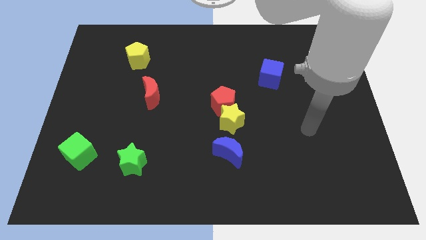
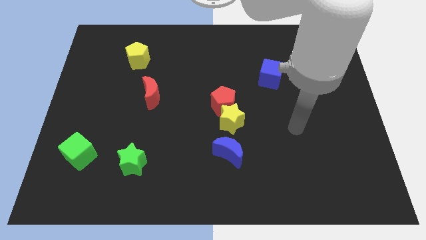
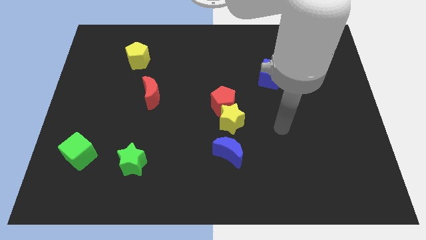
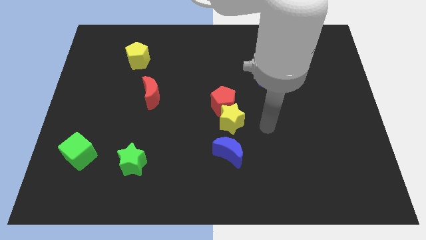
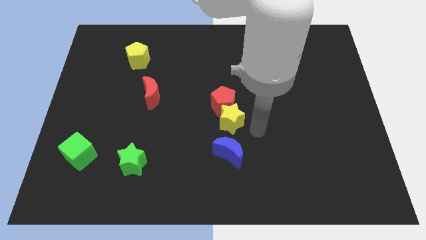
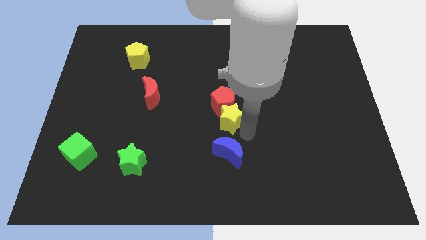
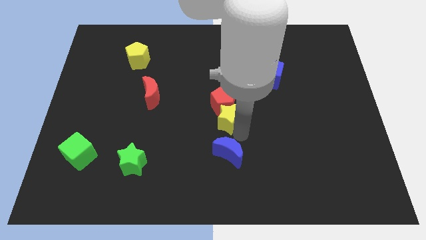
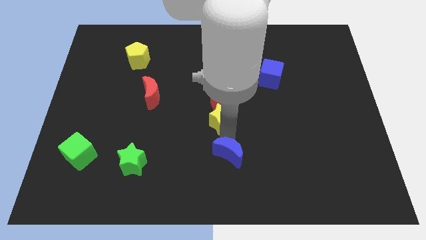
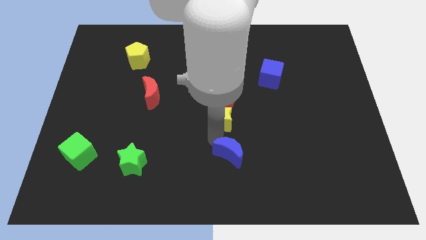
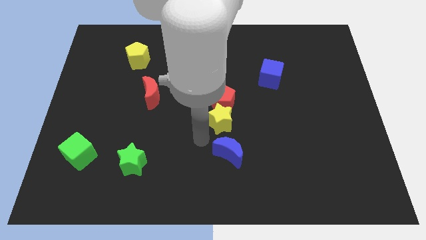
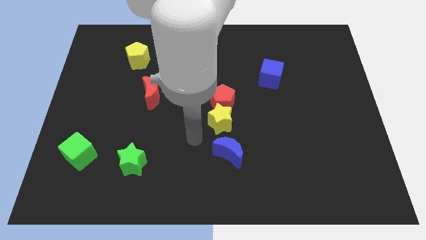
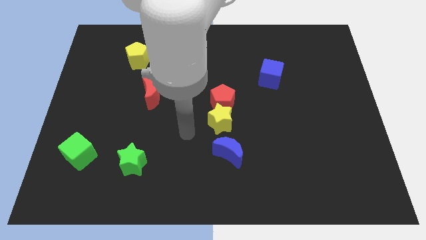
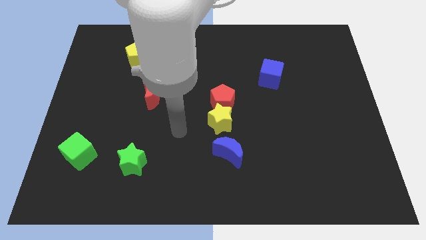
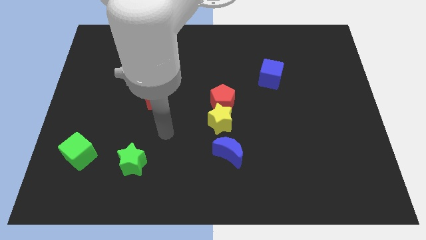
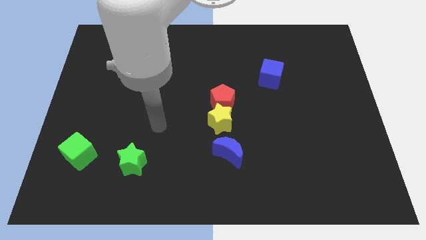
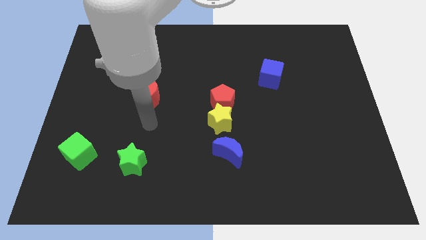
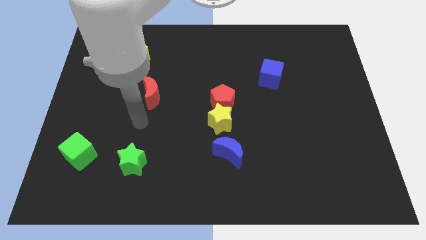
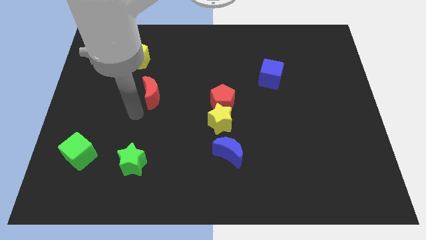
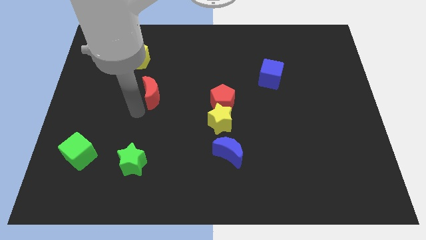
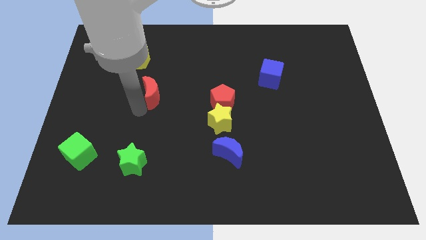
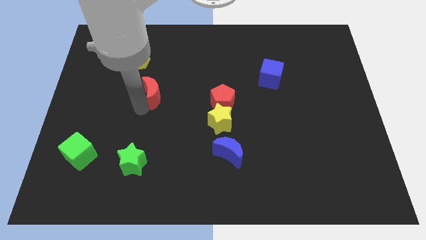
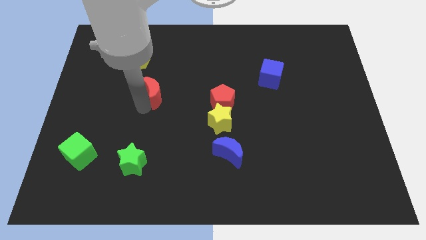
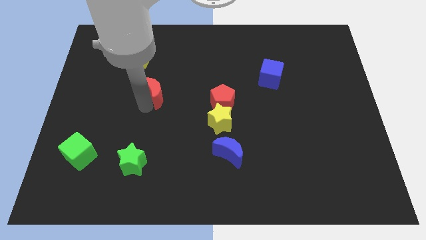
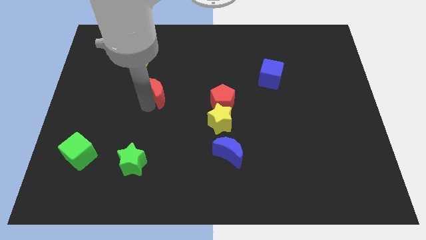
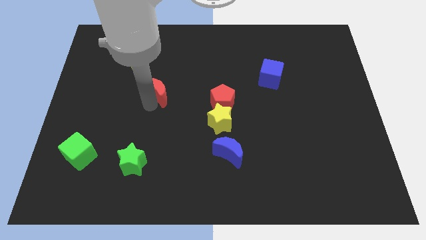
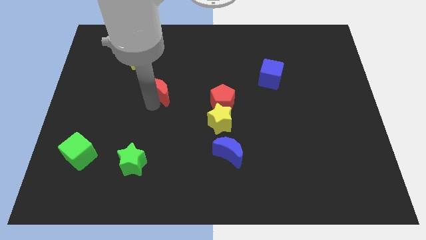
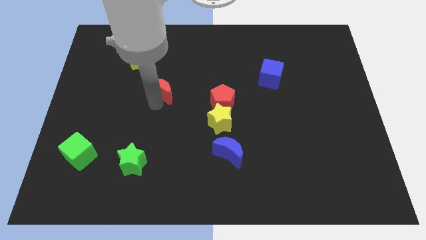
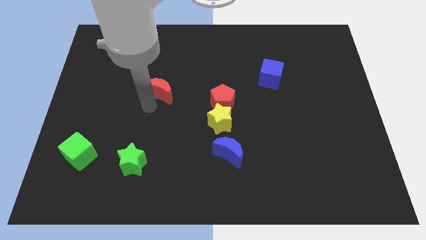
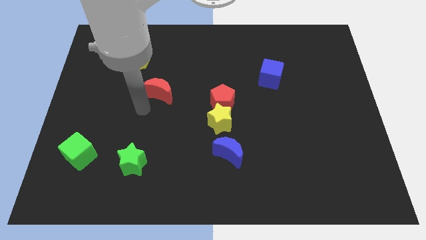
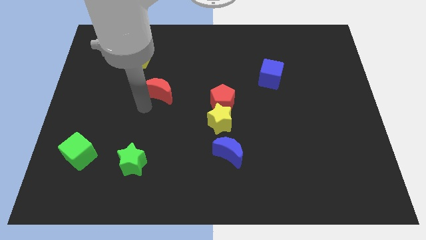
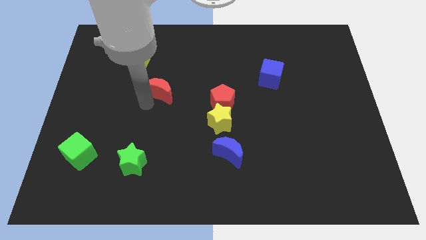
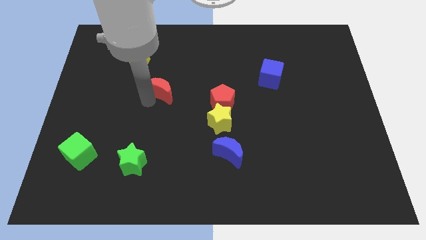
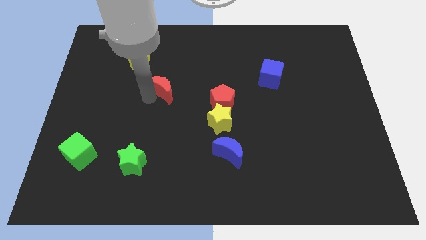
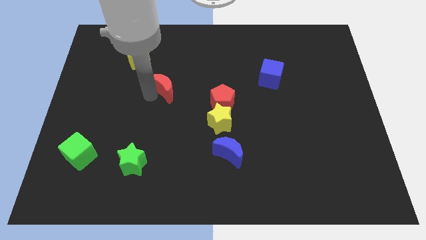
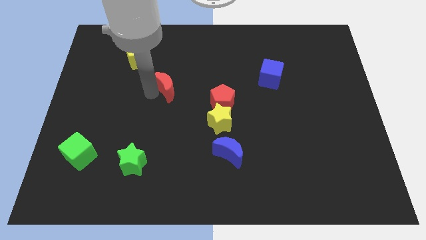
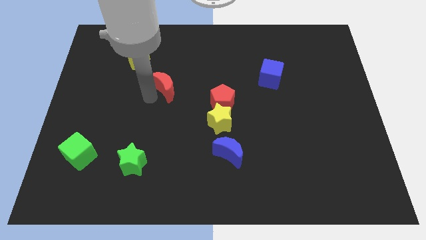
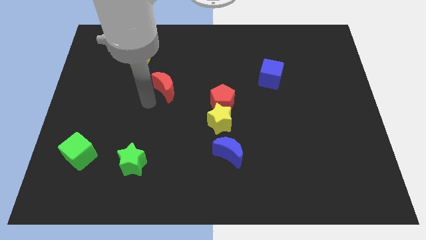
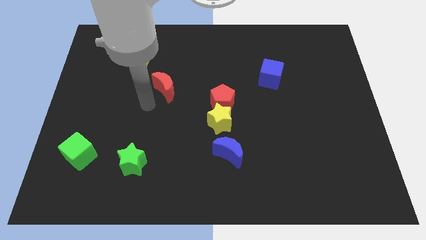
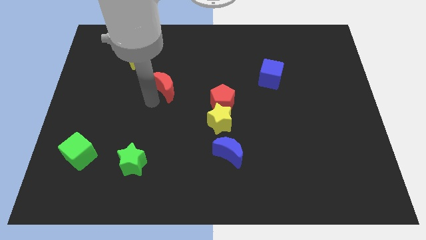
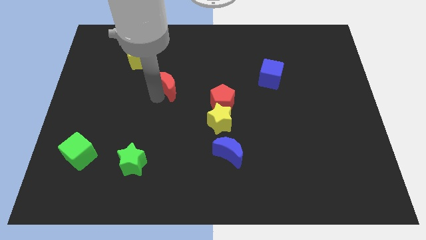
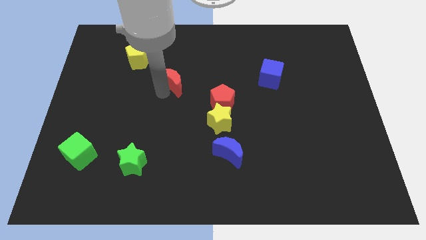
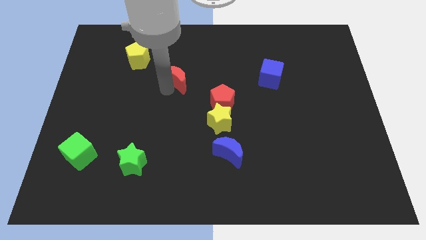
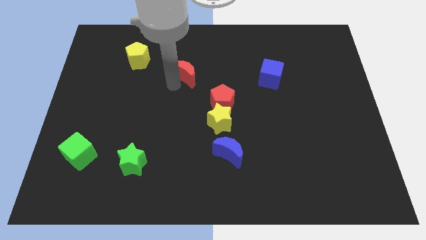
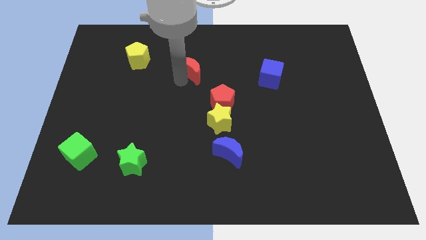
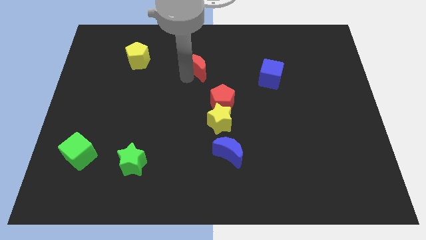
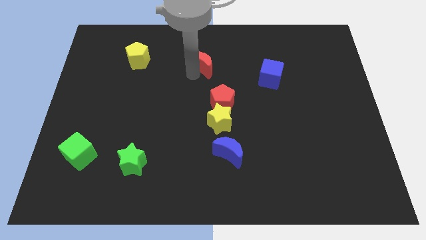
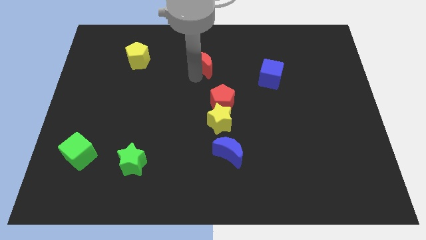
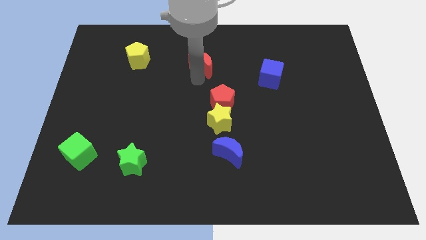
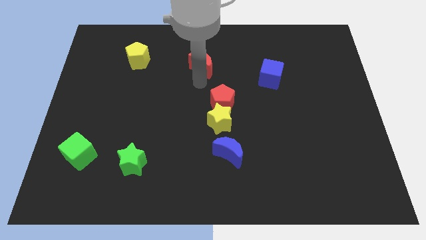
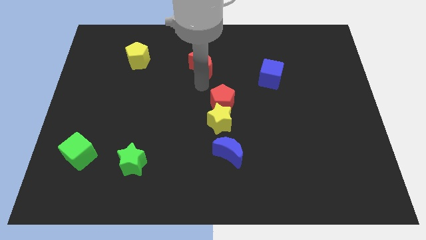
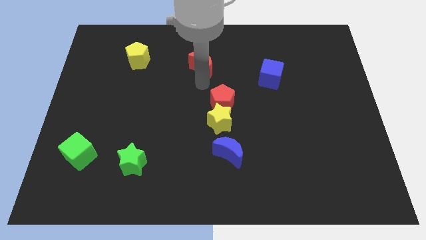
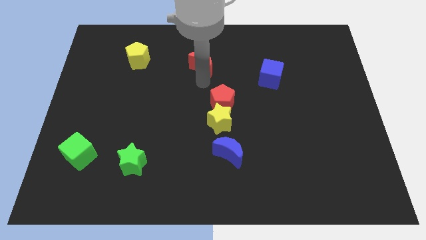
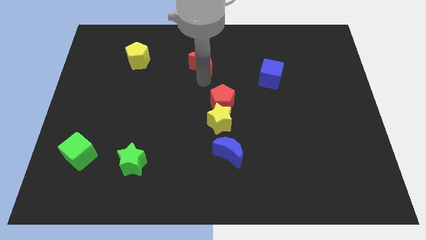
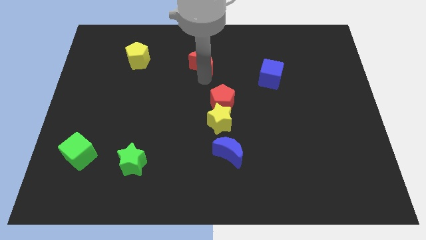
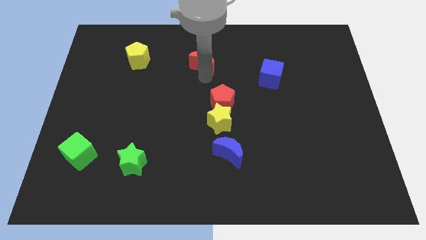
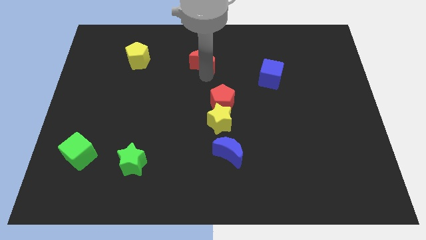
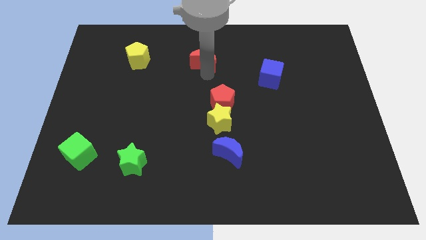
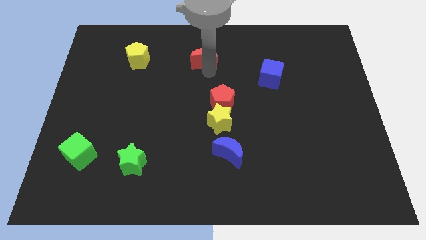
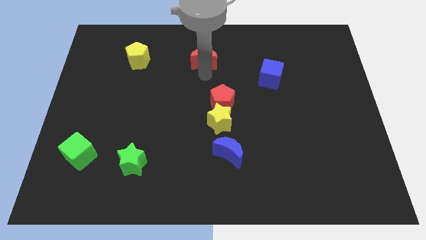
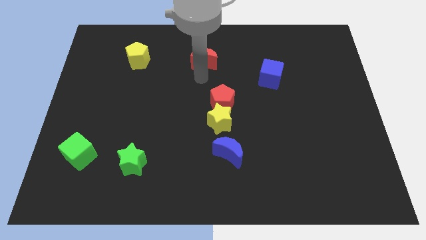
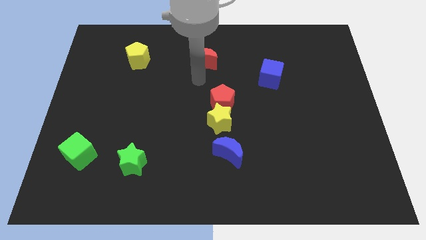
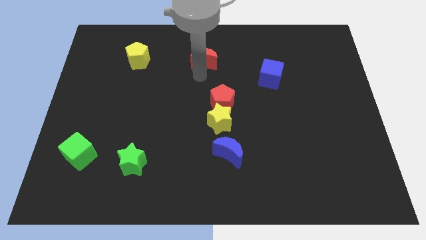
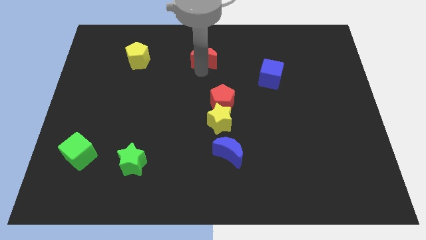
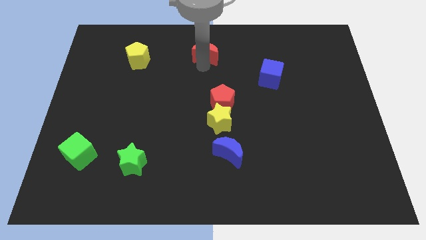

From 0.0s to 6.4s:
slide the red moon to the top side
